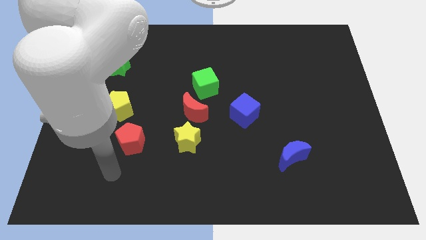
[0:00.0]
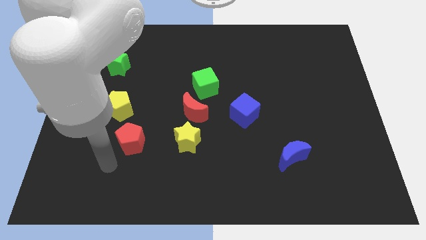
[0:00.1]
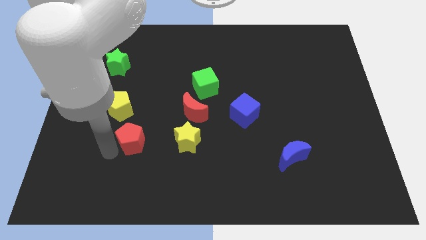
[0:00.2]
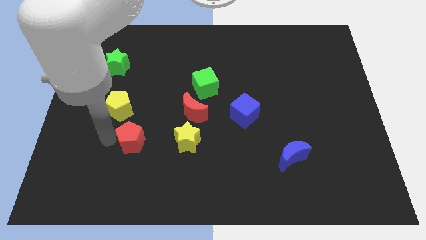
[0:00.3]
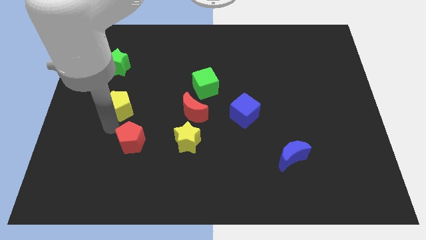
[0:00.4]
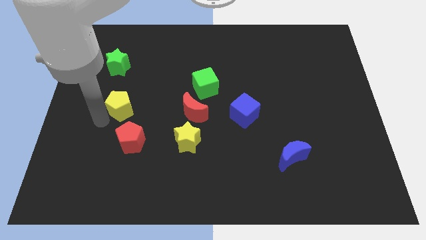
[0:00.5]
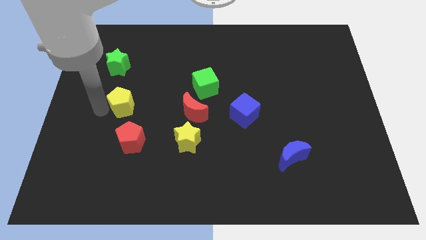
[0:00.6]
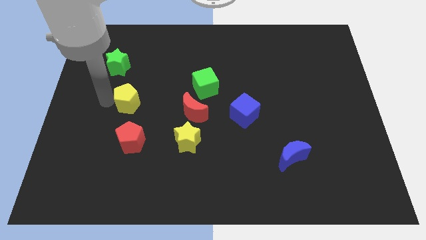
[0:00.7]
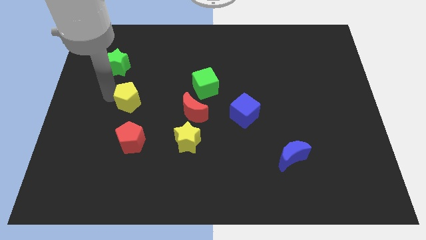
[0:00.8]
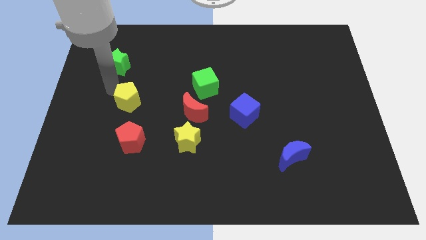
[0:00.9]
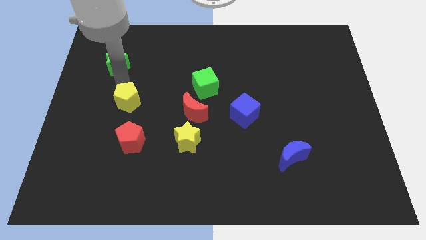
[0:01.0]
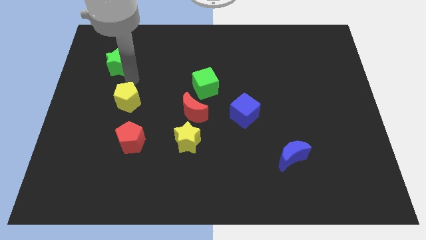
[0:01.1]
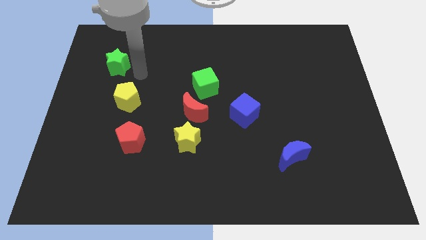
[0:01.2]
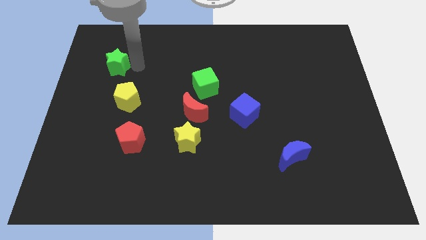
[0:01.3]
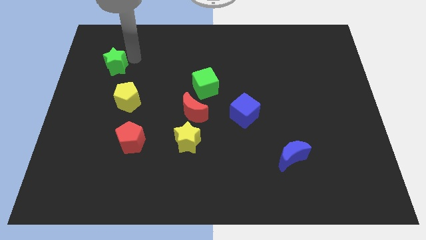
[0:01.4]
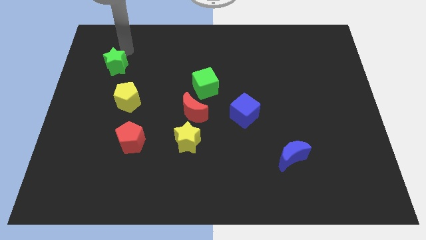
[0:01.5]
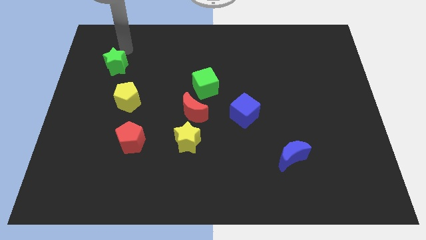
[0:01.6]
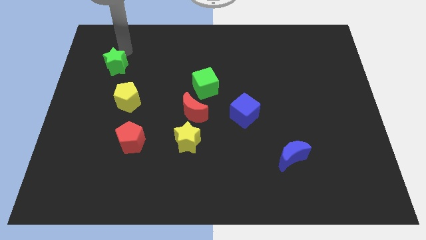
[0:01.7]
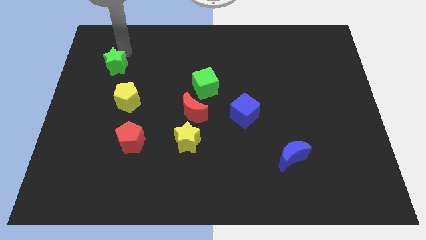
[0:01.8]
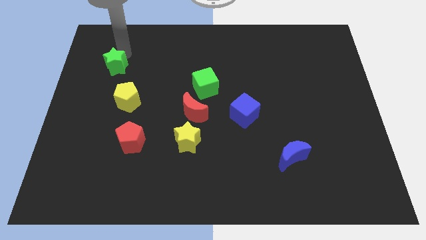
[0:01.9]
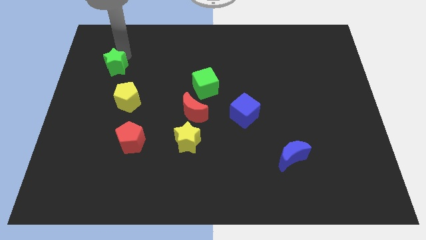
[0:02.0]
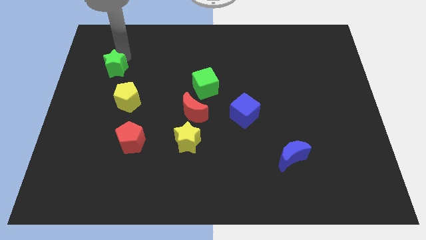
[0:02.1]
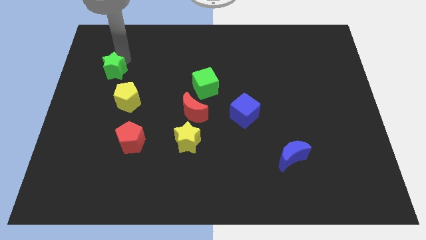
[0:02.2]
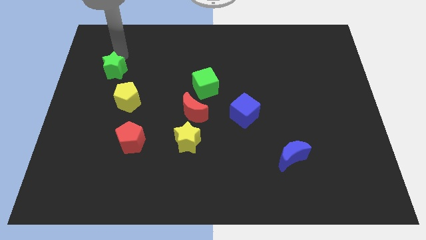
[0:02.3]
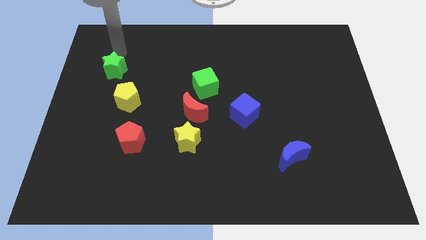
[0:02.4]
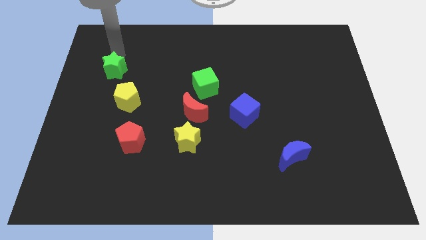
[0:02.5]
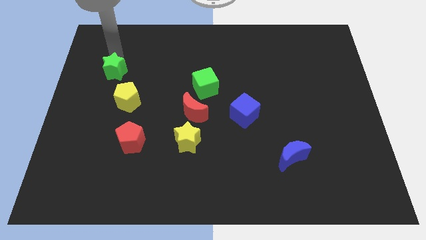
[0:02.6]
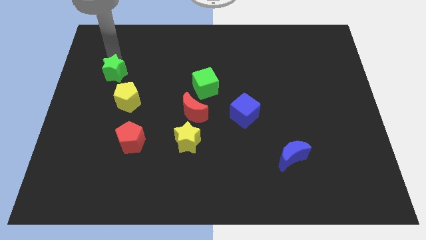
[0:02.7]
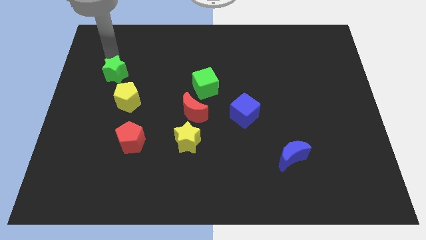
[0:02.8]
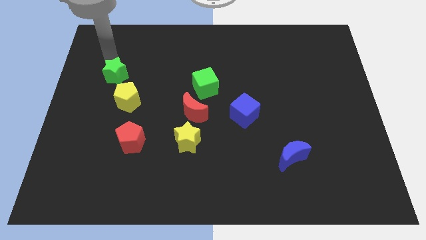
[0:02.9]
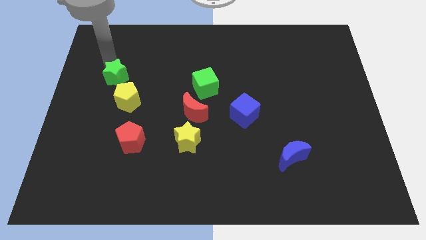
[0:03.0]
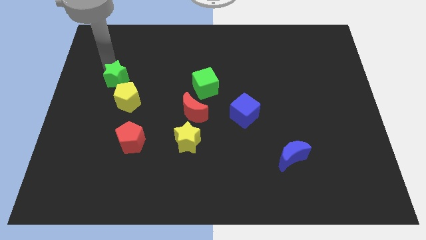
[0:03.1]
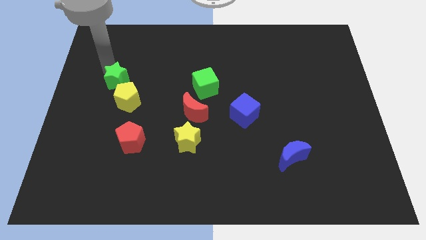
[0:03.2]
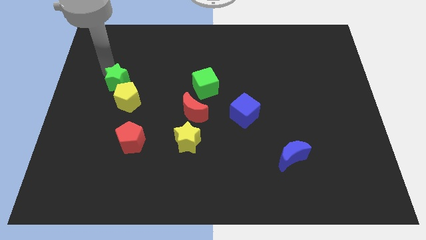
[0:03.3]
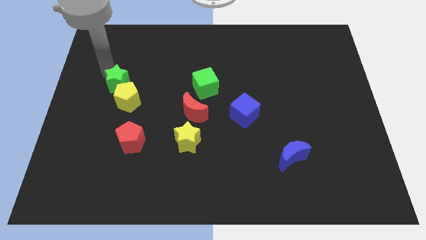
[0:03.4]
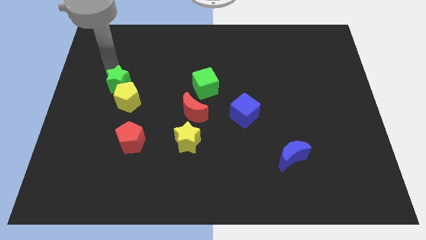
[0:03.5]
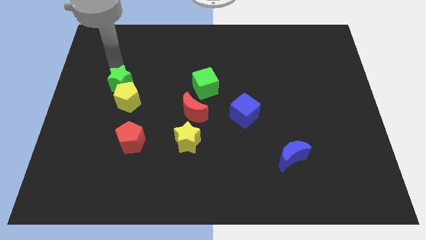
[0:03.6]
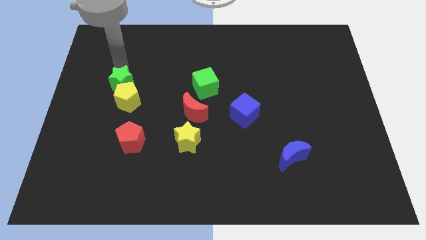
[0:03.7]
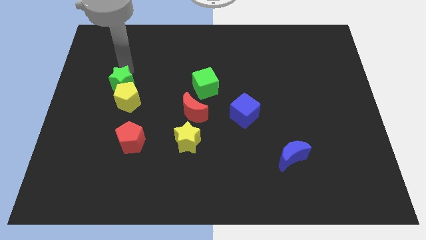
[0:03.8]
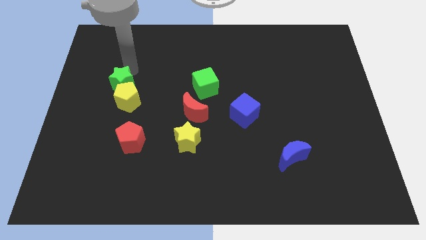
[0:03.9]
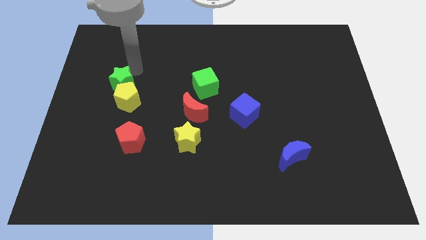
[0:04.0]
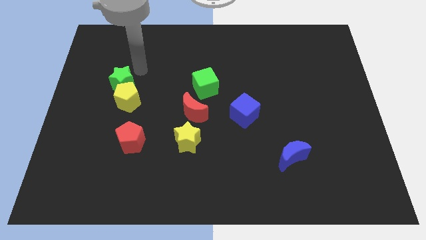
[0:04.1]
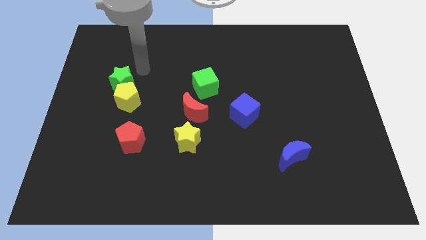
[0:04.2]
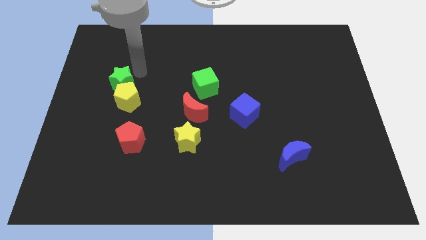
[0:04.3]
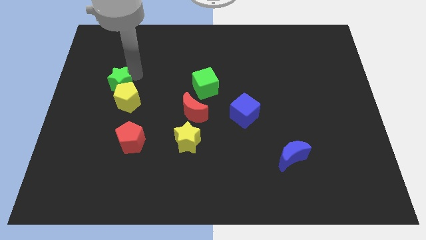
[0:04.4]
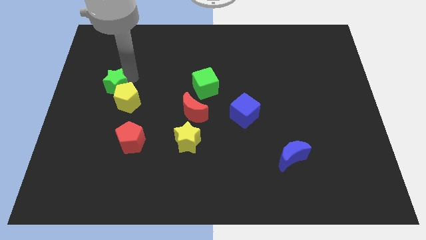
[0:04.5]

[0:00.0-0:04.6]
push the green star down a little bit

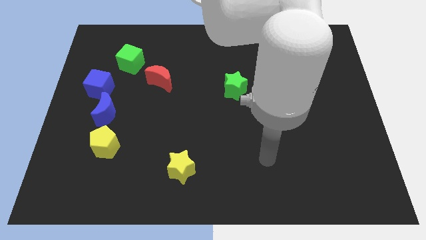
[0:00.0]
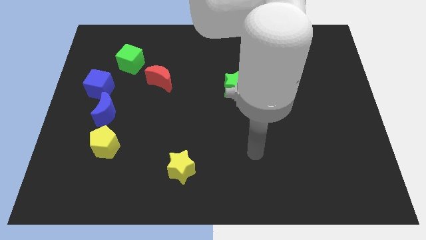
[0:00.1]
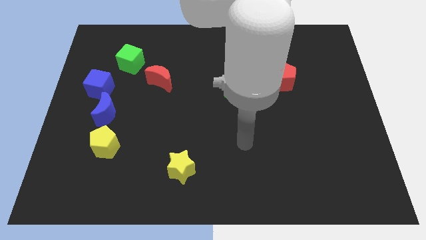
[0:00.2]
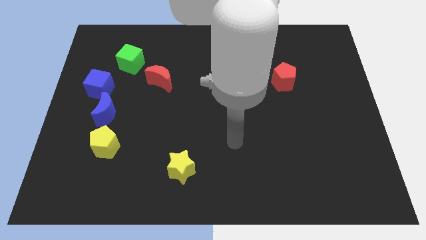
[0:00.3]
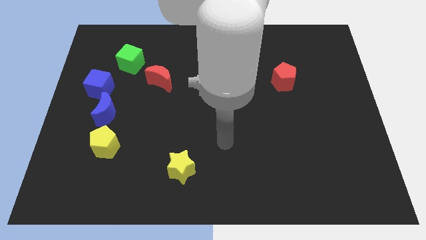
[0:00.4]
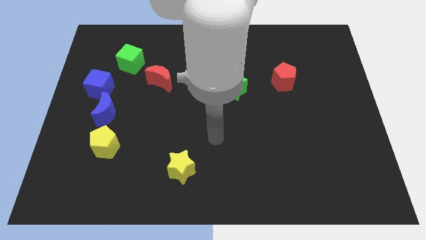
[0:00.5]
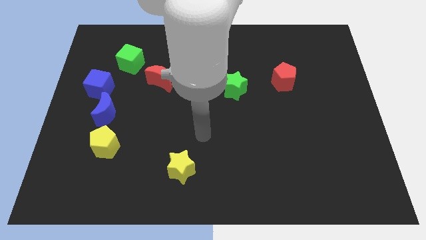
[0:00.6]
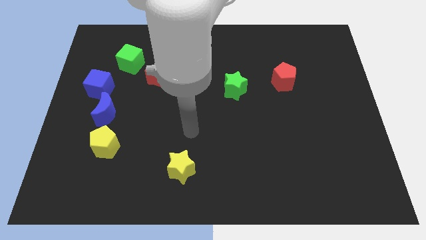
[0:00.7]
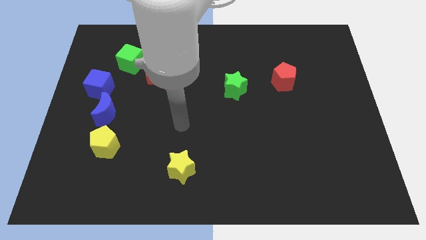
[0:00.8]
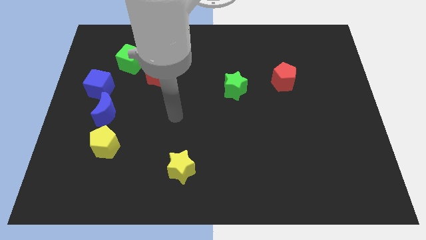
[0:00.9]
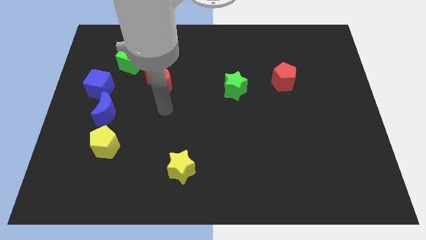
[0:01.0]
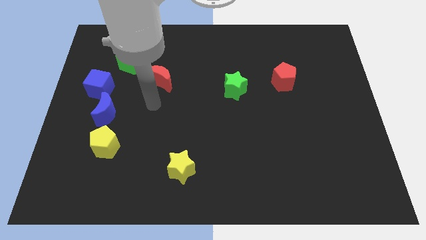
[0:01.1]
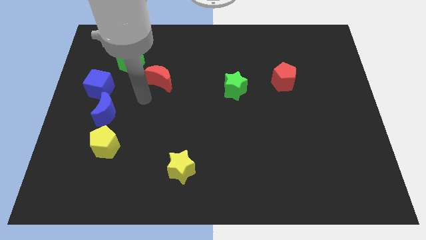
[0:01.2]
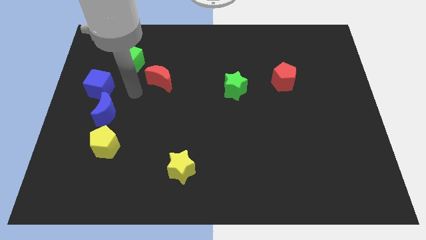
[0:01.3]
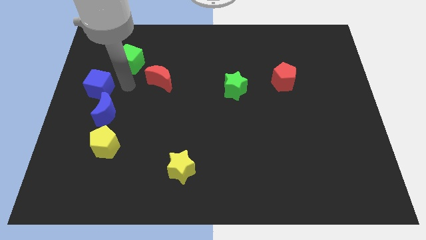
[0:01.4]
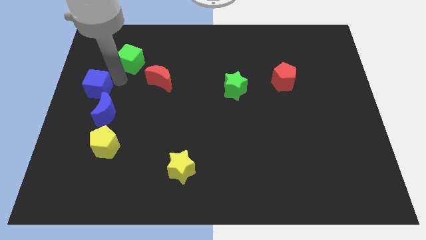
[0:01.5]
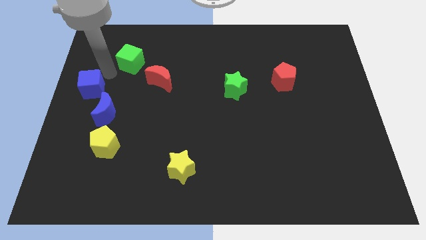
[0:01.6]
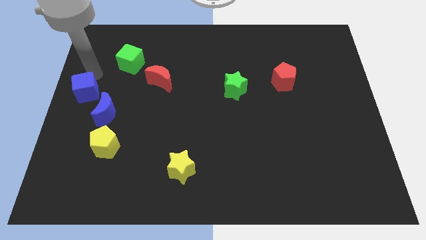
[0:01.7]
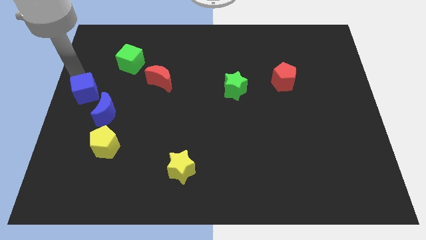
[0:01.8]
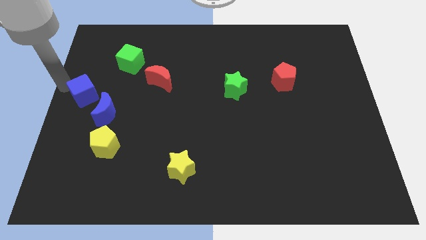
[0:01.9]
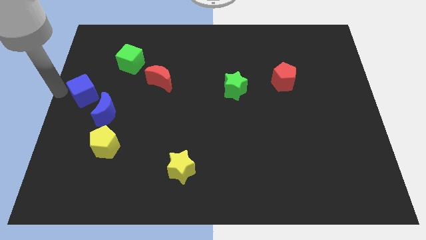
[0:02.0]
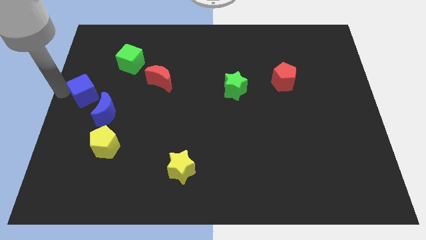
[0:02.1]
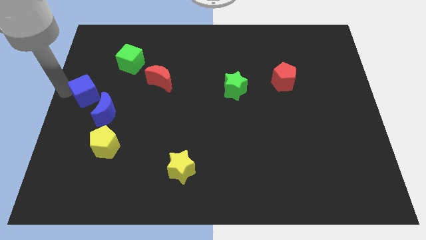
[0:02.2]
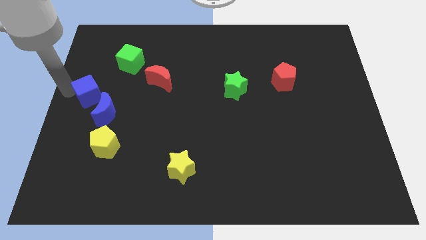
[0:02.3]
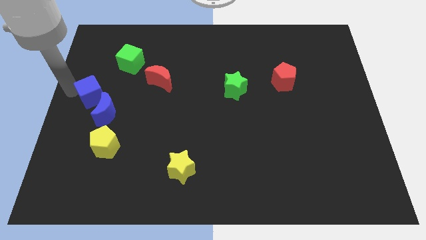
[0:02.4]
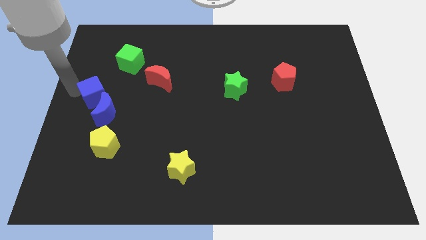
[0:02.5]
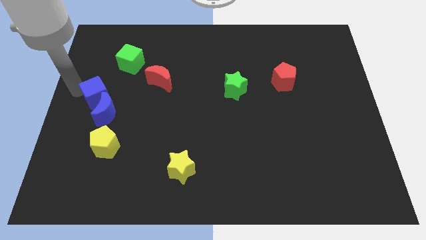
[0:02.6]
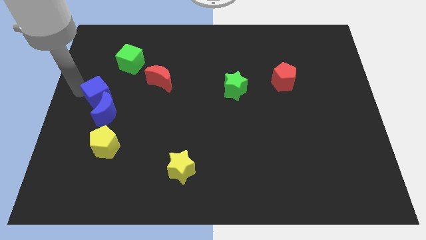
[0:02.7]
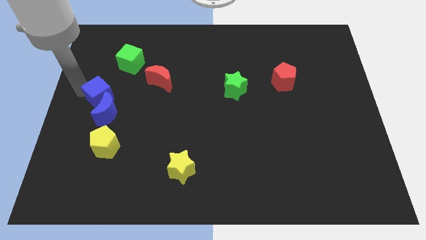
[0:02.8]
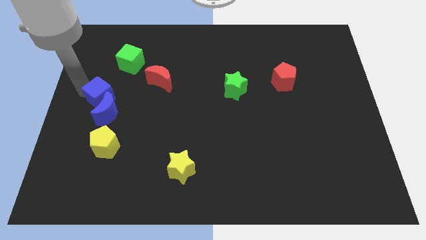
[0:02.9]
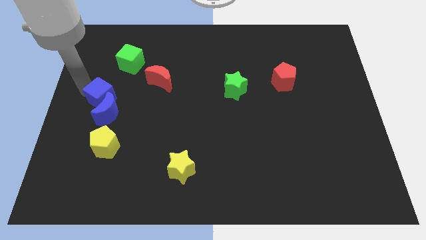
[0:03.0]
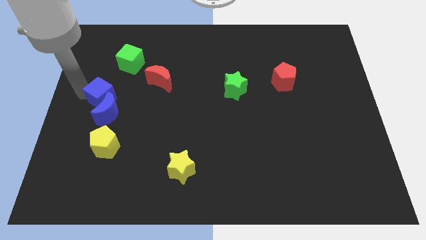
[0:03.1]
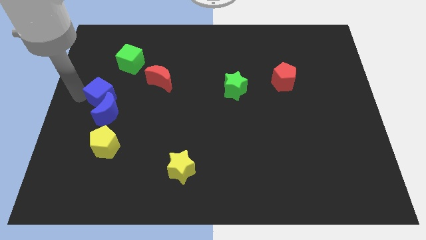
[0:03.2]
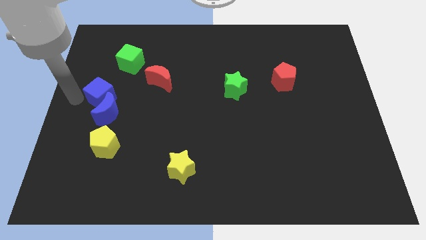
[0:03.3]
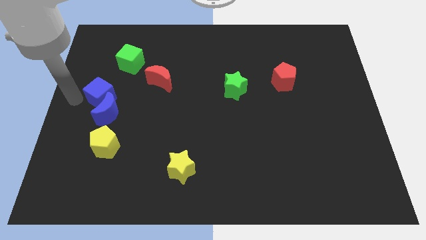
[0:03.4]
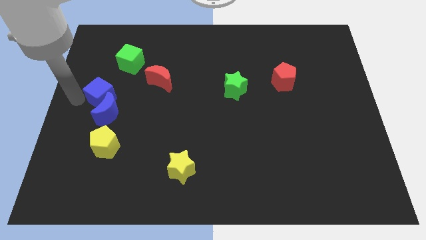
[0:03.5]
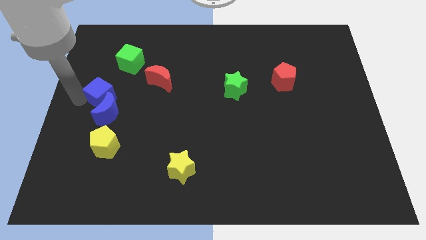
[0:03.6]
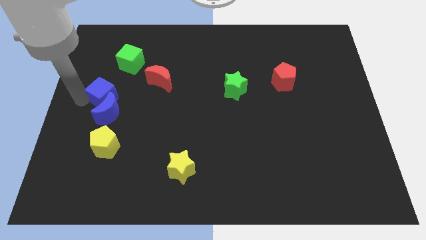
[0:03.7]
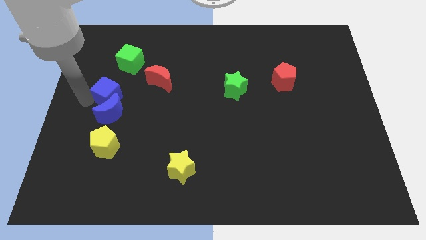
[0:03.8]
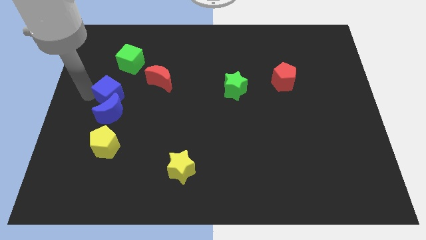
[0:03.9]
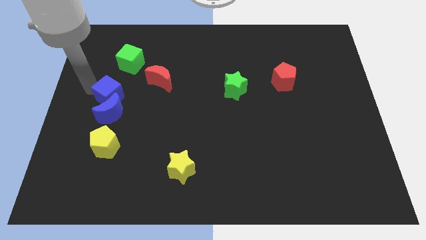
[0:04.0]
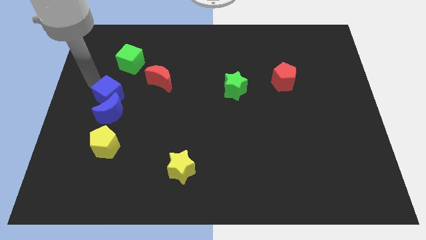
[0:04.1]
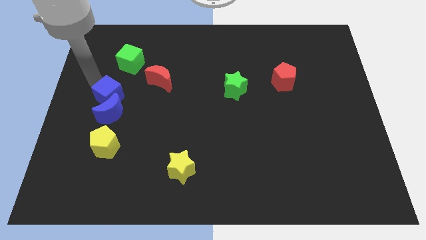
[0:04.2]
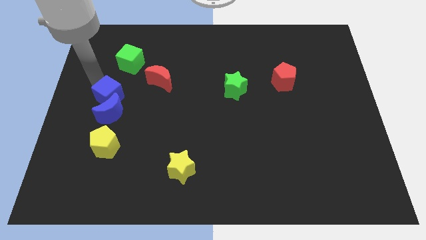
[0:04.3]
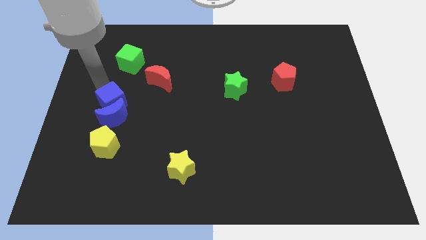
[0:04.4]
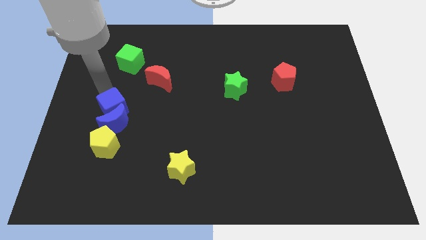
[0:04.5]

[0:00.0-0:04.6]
slide the blue cube a bit downwards and right diagonally
